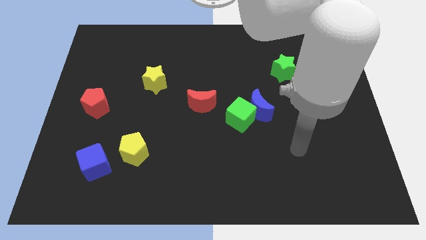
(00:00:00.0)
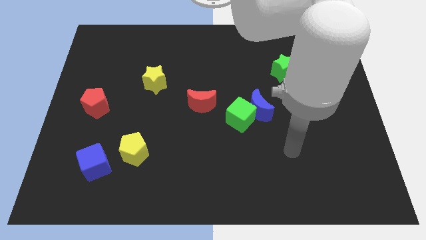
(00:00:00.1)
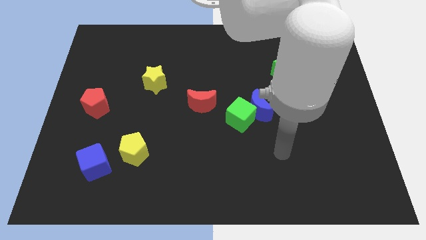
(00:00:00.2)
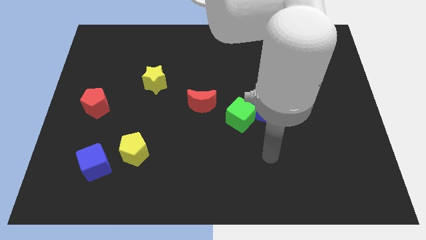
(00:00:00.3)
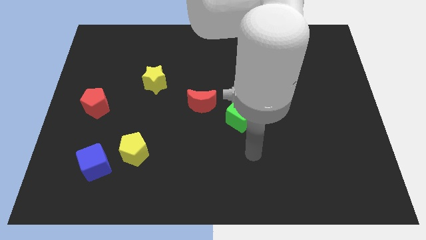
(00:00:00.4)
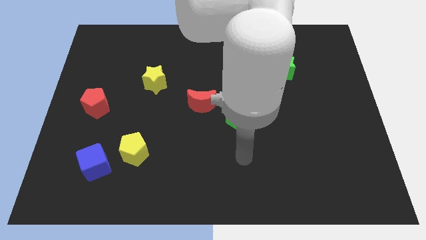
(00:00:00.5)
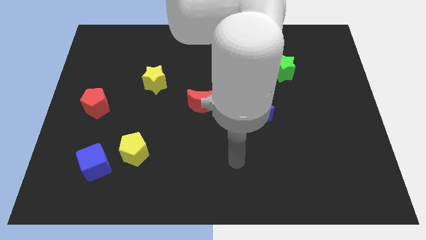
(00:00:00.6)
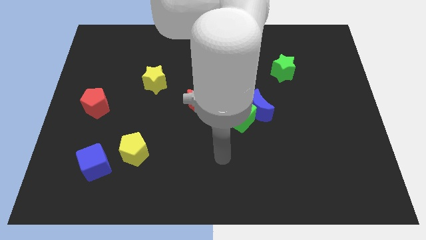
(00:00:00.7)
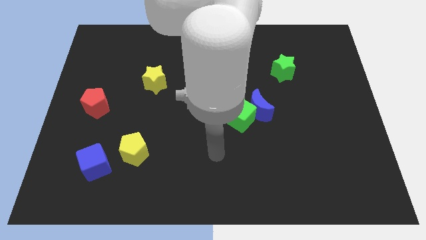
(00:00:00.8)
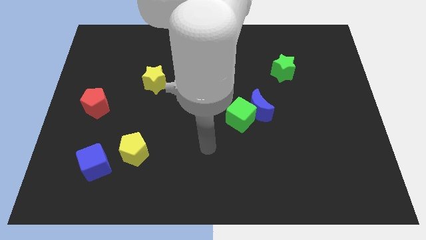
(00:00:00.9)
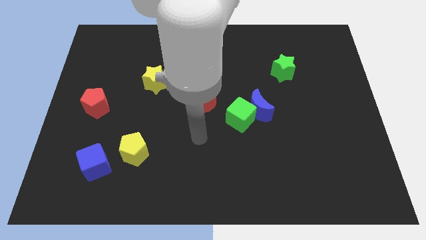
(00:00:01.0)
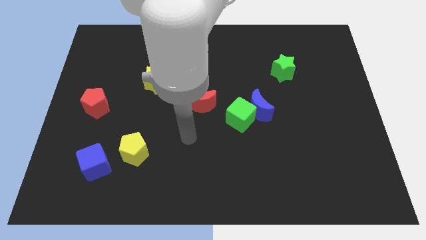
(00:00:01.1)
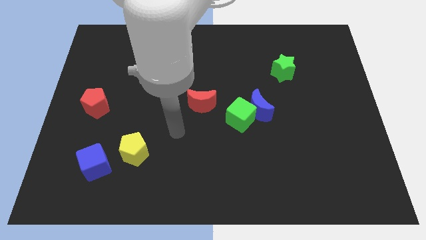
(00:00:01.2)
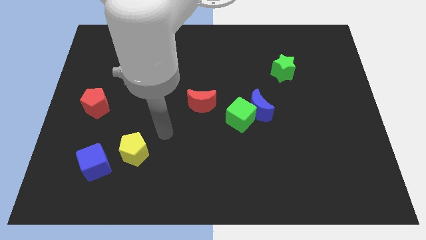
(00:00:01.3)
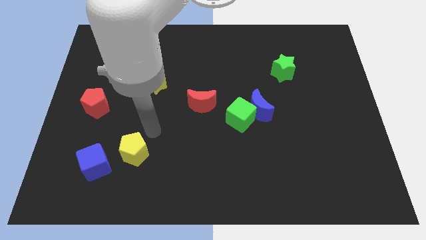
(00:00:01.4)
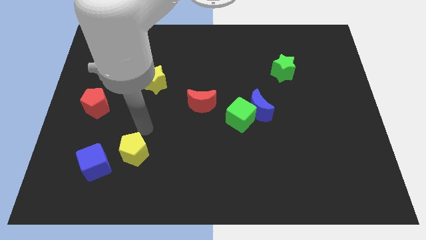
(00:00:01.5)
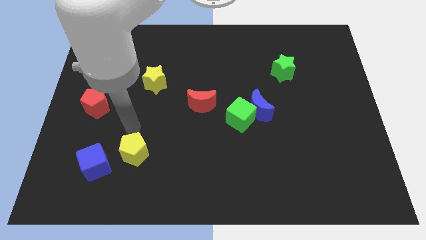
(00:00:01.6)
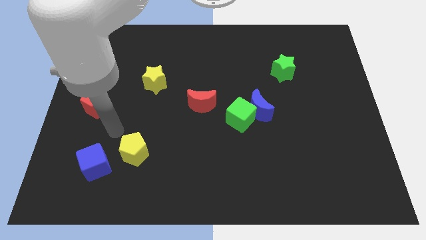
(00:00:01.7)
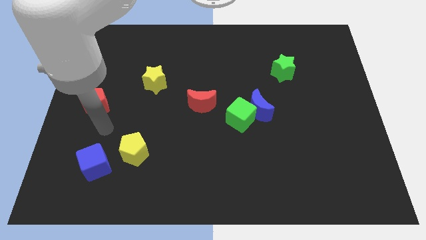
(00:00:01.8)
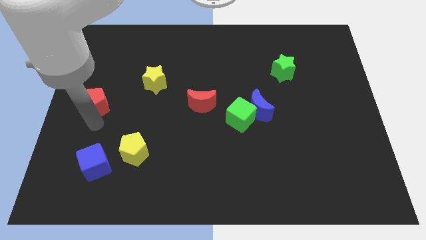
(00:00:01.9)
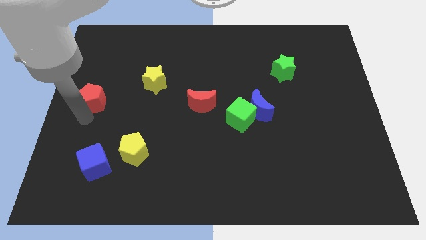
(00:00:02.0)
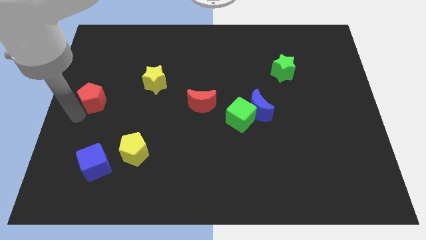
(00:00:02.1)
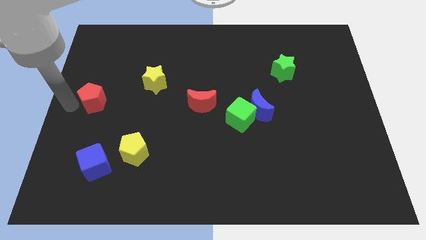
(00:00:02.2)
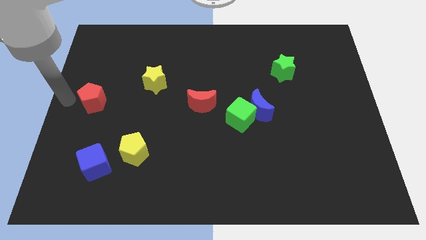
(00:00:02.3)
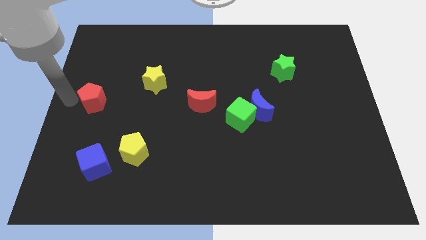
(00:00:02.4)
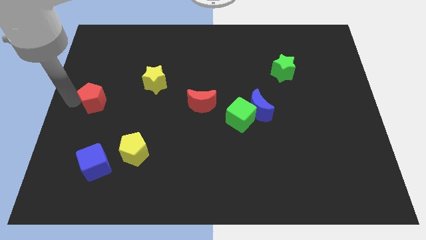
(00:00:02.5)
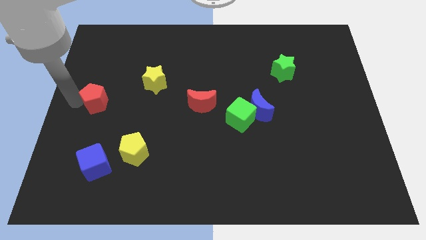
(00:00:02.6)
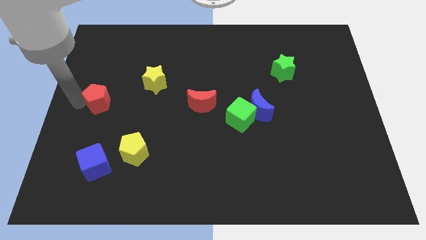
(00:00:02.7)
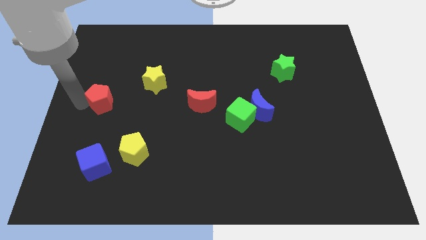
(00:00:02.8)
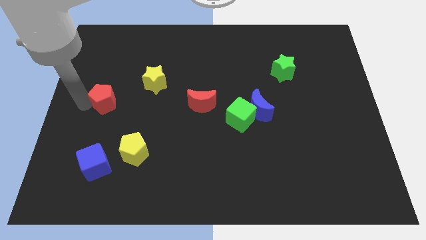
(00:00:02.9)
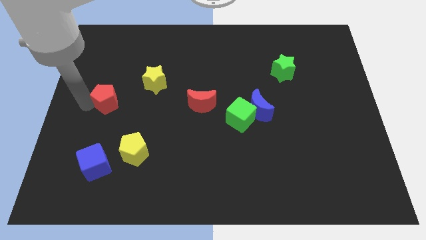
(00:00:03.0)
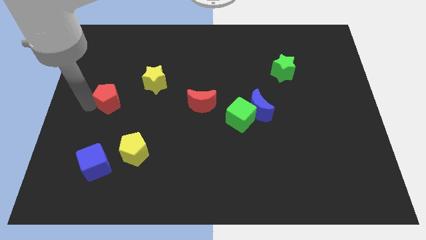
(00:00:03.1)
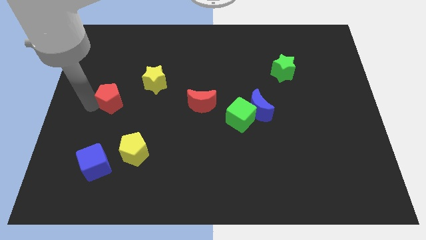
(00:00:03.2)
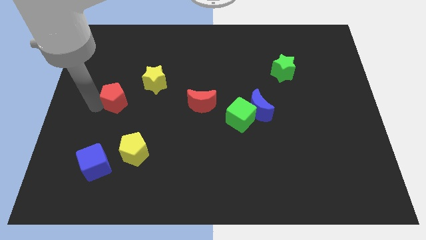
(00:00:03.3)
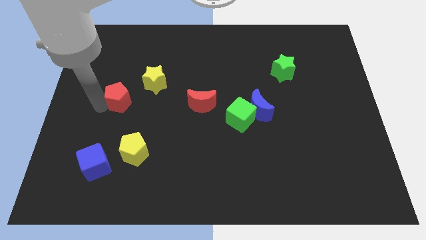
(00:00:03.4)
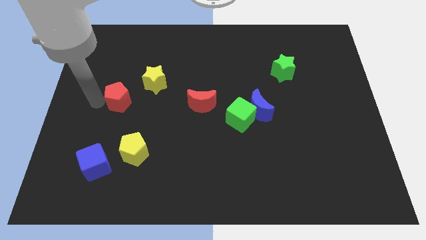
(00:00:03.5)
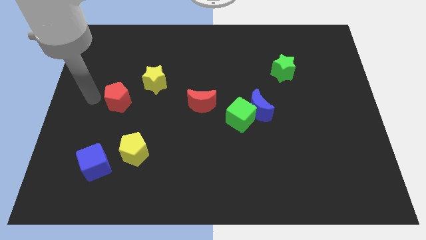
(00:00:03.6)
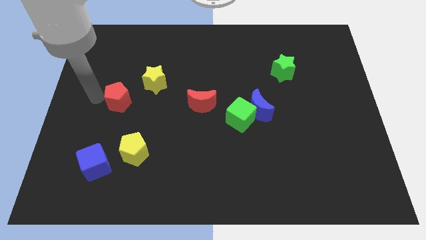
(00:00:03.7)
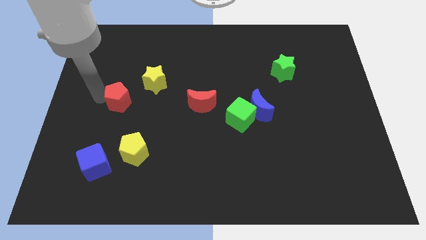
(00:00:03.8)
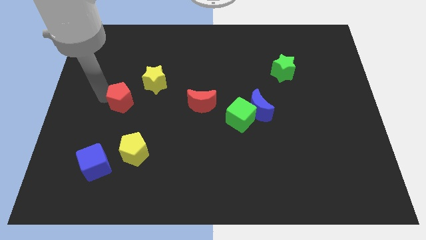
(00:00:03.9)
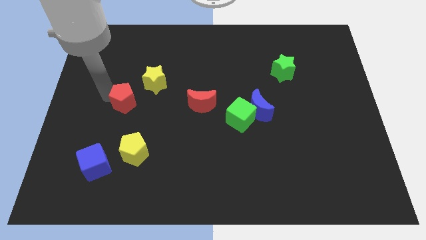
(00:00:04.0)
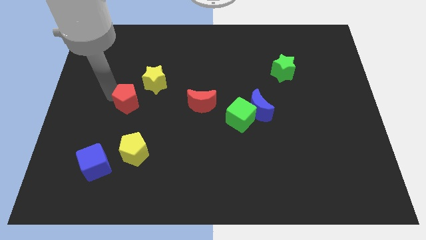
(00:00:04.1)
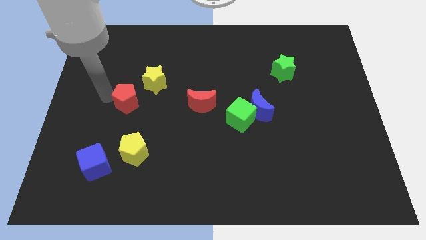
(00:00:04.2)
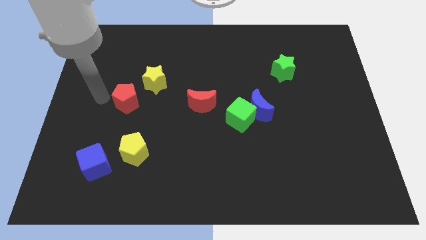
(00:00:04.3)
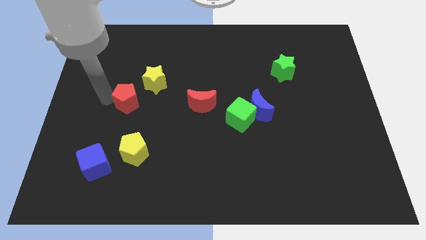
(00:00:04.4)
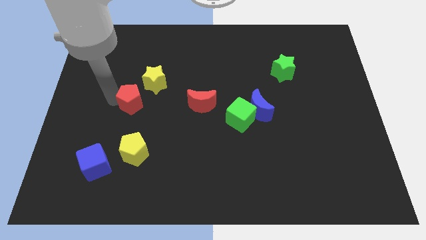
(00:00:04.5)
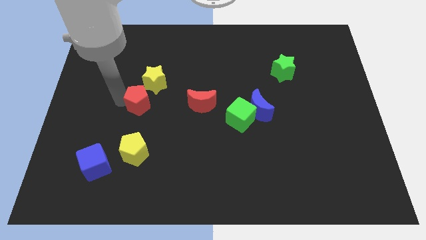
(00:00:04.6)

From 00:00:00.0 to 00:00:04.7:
slide the red pentagon left of the red moon

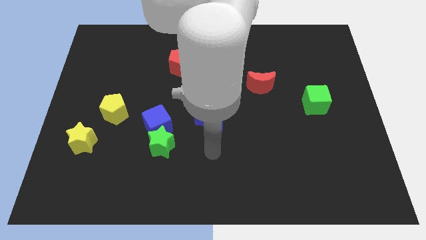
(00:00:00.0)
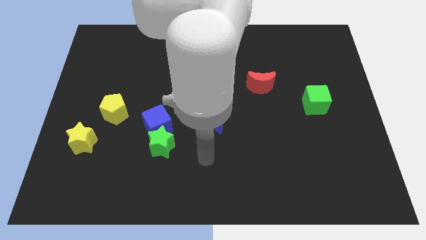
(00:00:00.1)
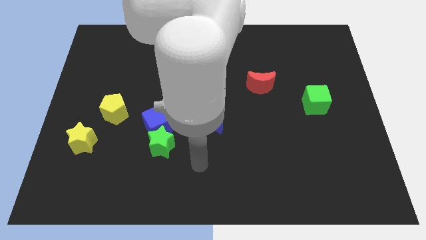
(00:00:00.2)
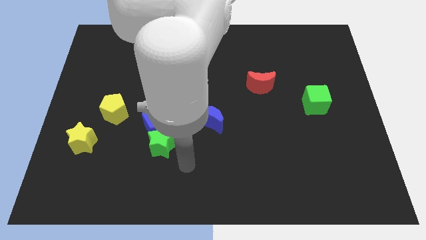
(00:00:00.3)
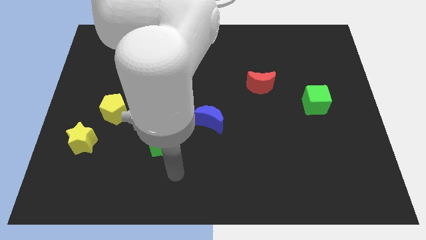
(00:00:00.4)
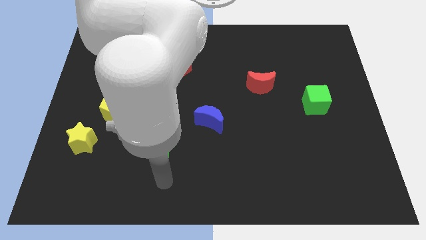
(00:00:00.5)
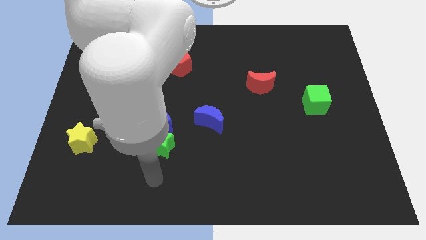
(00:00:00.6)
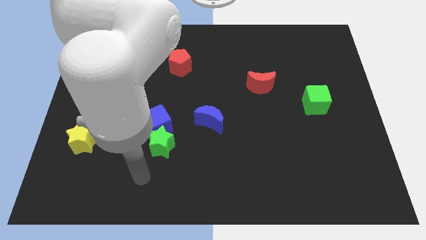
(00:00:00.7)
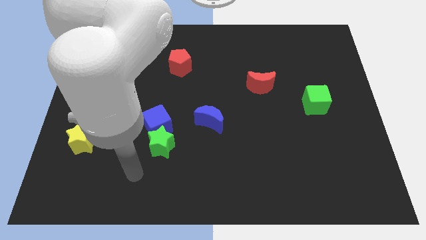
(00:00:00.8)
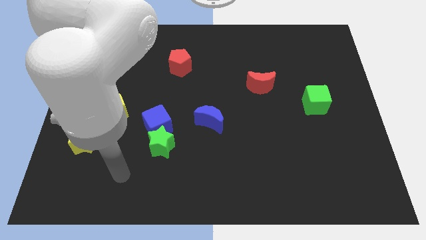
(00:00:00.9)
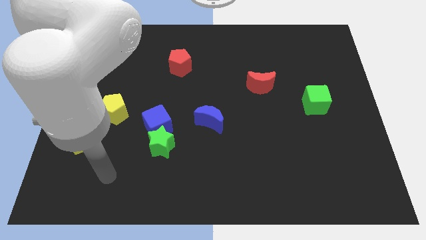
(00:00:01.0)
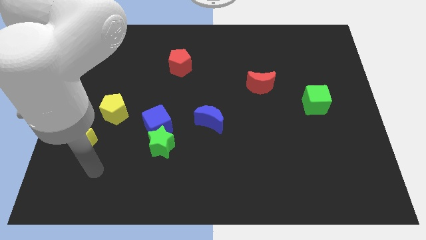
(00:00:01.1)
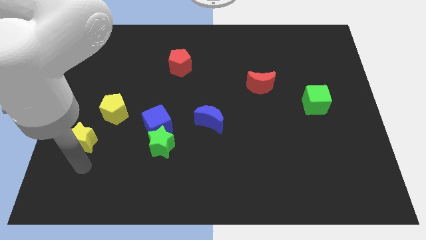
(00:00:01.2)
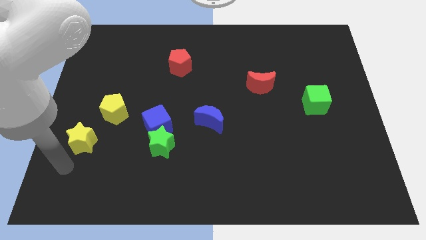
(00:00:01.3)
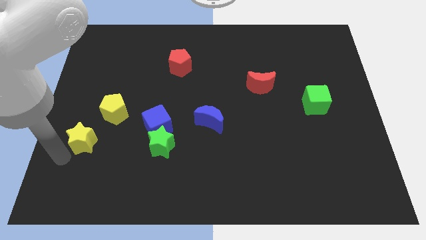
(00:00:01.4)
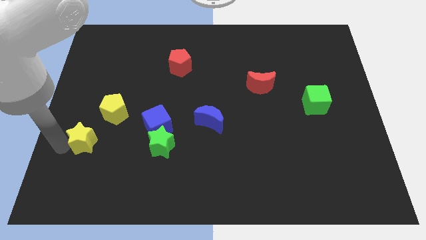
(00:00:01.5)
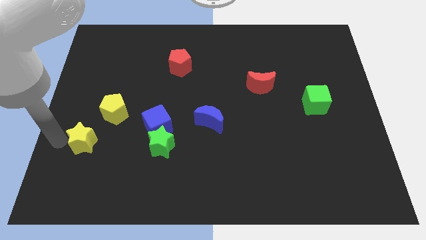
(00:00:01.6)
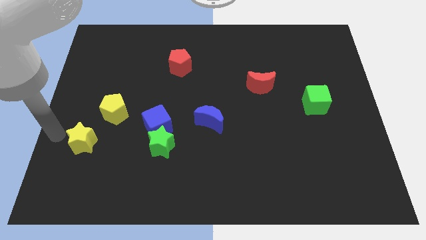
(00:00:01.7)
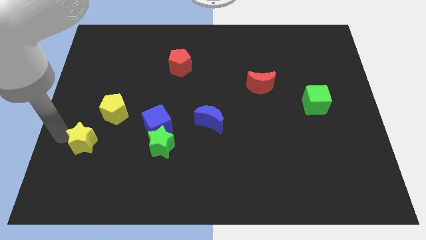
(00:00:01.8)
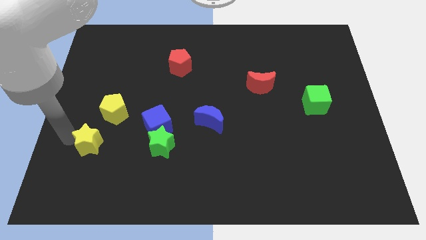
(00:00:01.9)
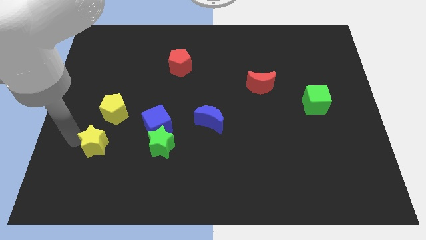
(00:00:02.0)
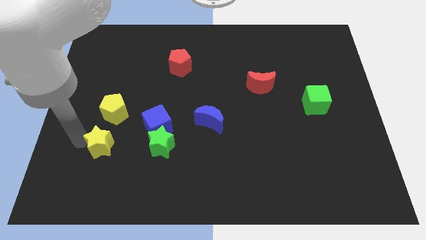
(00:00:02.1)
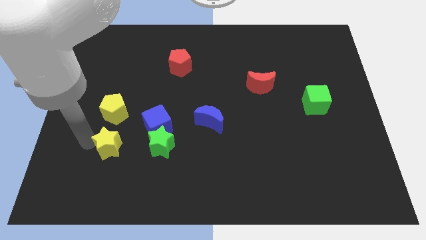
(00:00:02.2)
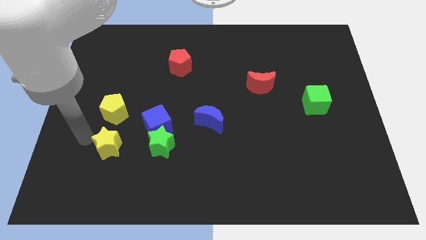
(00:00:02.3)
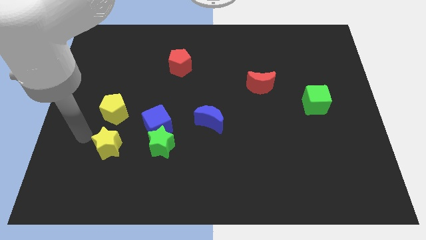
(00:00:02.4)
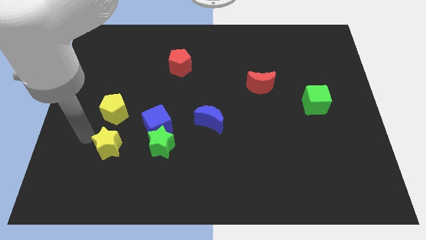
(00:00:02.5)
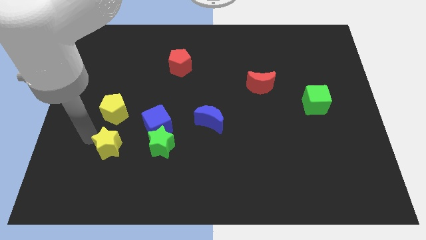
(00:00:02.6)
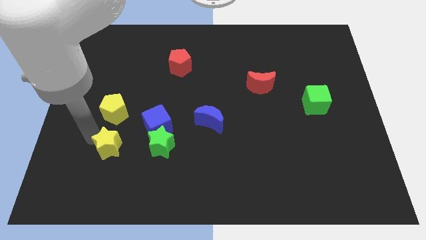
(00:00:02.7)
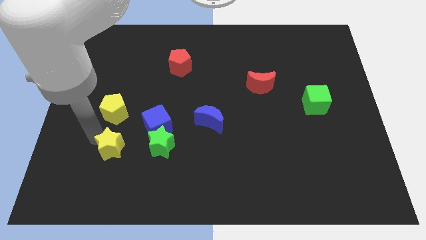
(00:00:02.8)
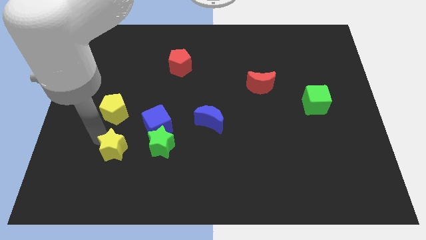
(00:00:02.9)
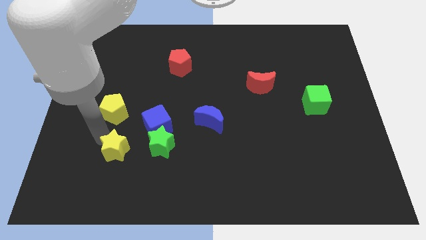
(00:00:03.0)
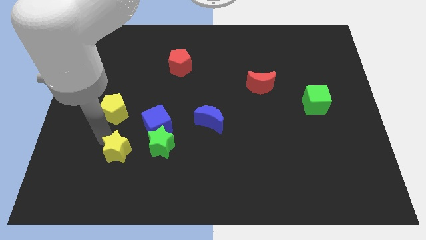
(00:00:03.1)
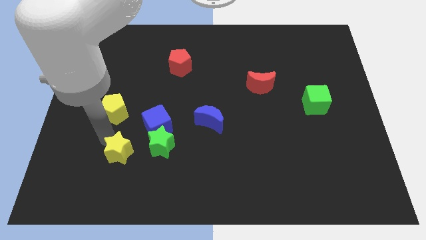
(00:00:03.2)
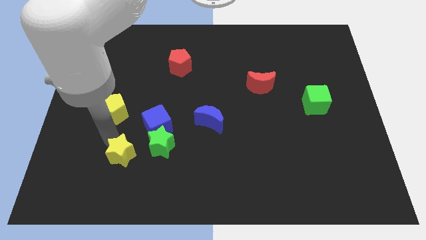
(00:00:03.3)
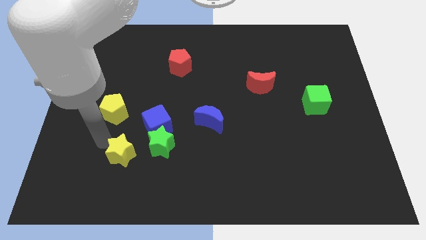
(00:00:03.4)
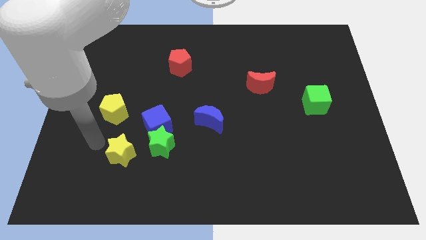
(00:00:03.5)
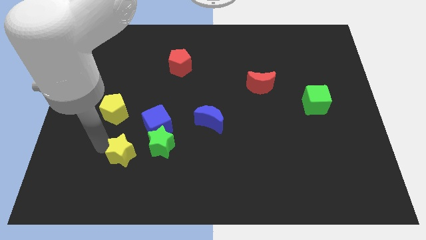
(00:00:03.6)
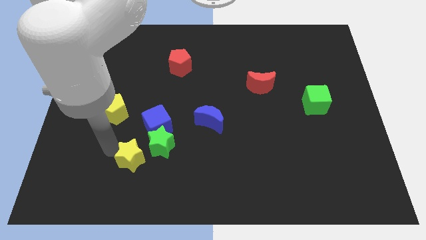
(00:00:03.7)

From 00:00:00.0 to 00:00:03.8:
slide the yellow star to the bottom side of the blue cube

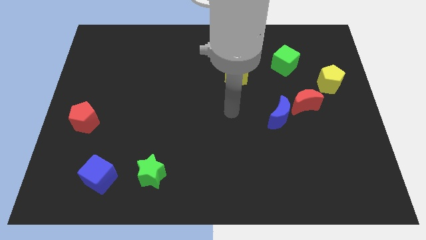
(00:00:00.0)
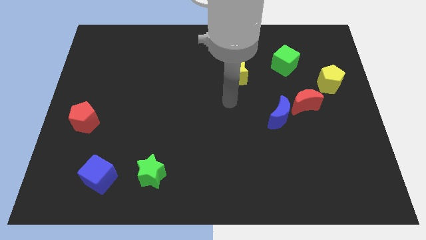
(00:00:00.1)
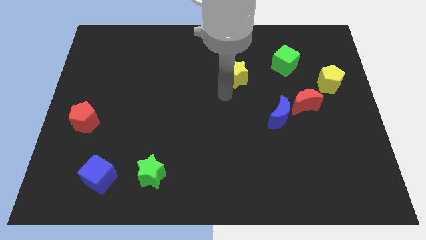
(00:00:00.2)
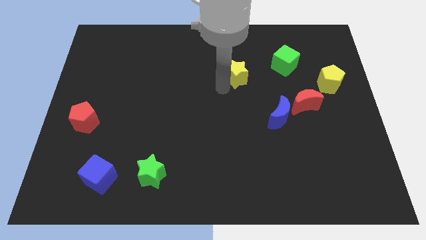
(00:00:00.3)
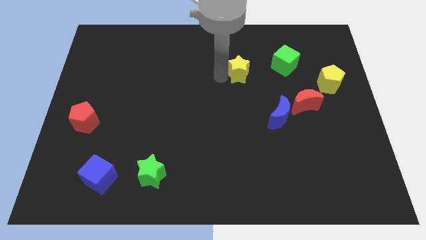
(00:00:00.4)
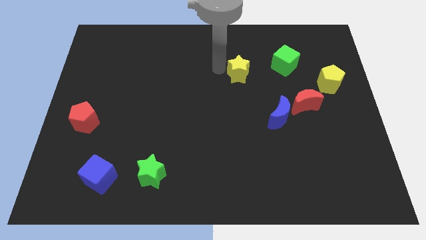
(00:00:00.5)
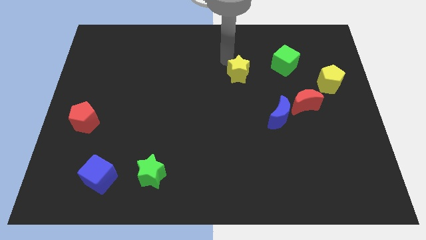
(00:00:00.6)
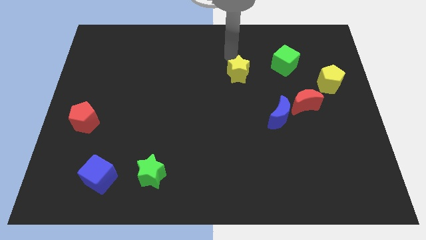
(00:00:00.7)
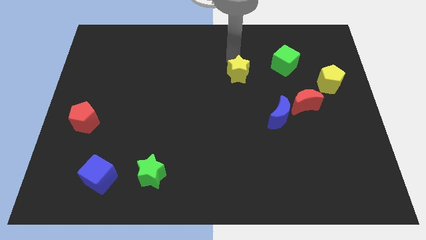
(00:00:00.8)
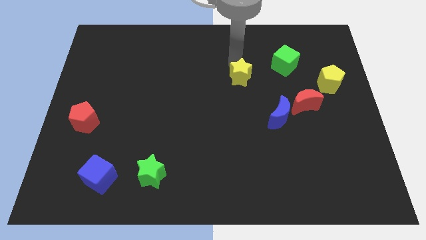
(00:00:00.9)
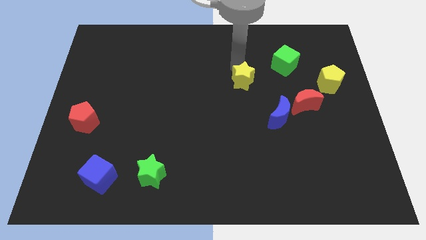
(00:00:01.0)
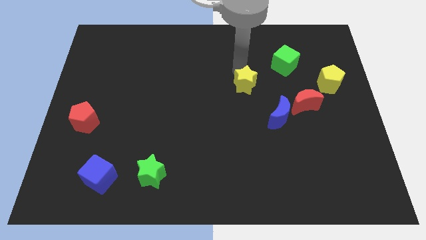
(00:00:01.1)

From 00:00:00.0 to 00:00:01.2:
push the yellow star diagonally up and to the left of the blue moon
